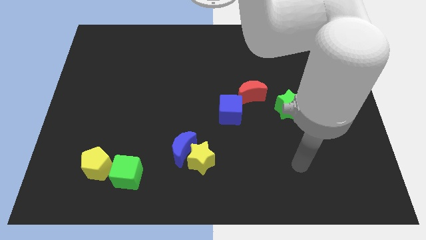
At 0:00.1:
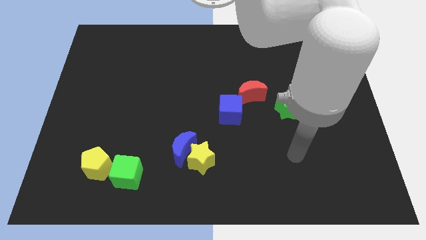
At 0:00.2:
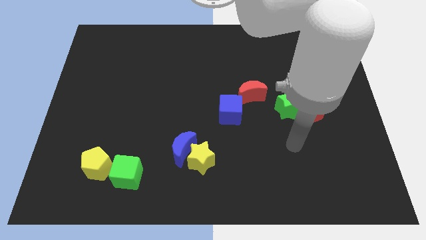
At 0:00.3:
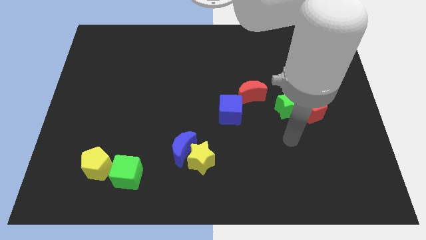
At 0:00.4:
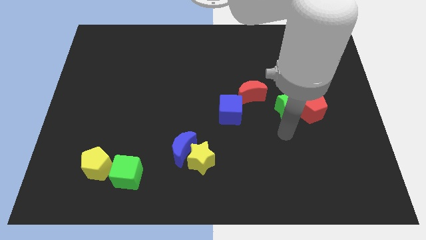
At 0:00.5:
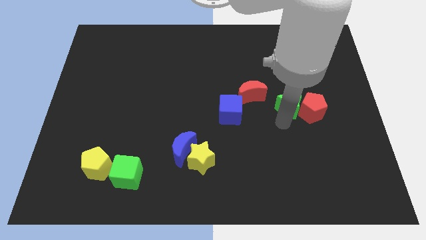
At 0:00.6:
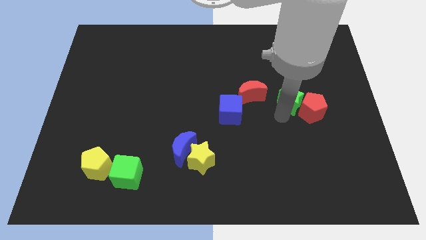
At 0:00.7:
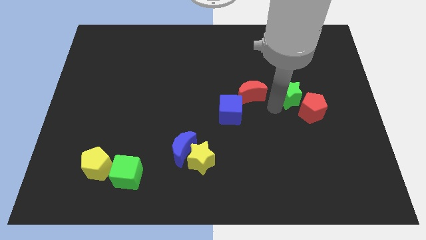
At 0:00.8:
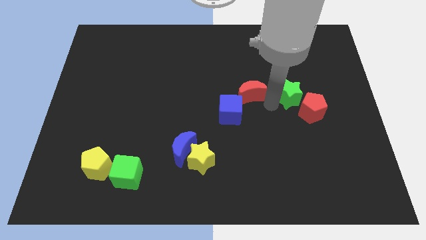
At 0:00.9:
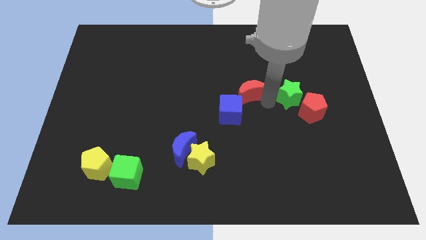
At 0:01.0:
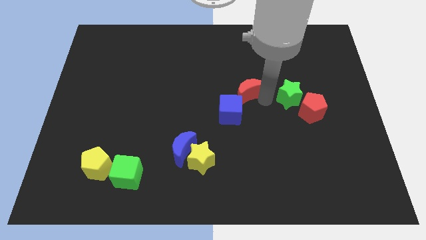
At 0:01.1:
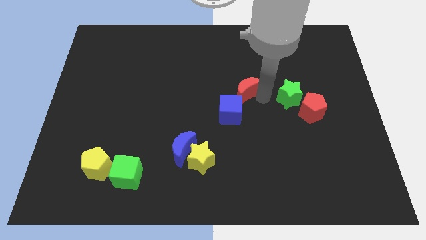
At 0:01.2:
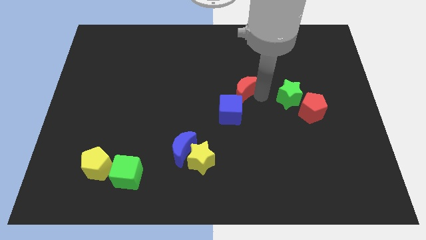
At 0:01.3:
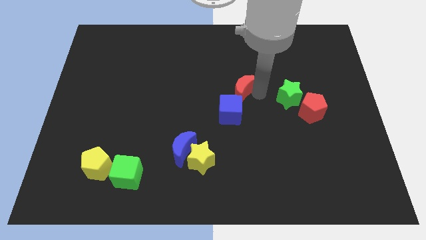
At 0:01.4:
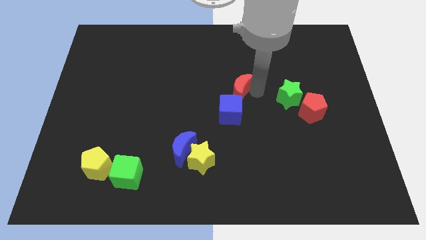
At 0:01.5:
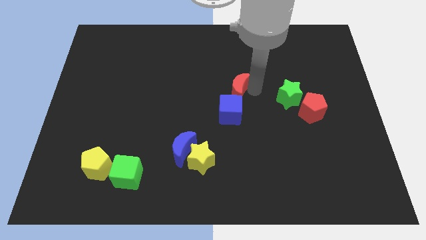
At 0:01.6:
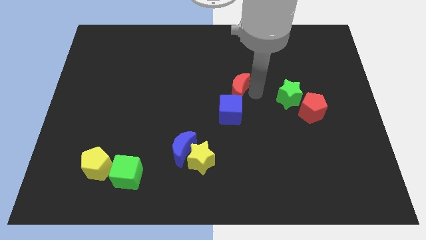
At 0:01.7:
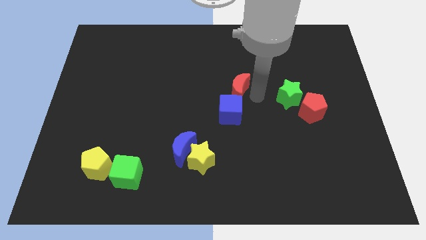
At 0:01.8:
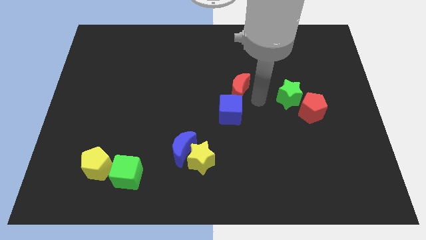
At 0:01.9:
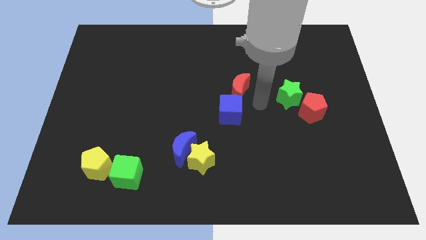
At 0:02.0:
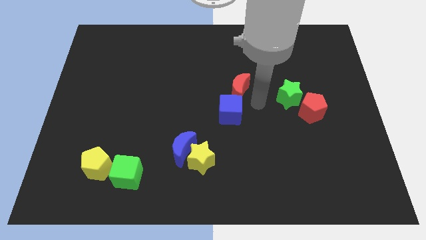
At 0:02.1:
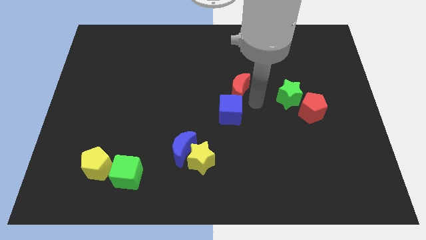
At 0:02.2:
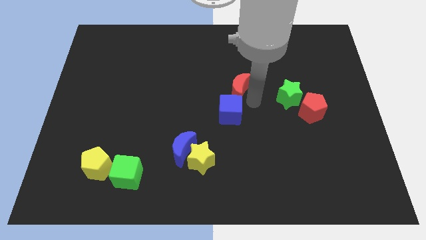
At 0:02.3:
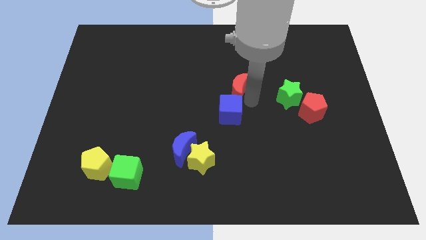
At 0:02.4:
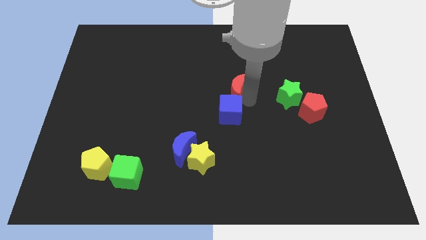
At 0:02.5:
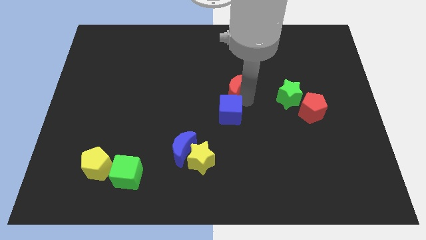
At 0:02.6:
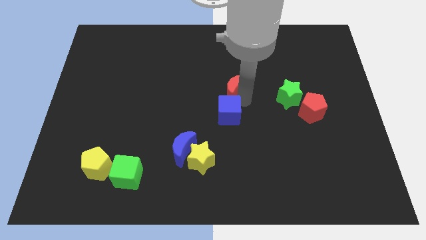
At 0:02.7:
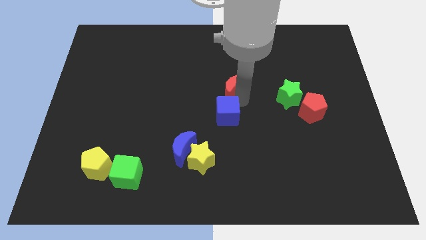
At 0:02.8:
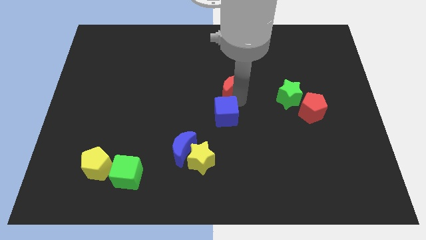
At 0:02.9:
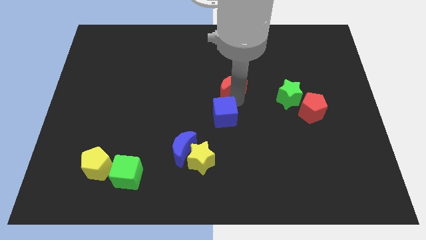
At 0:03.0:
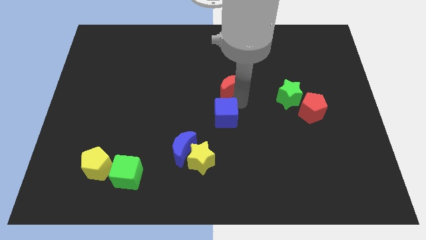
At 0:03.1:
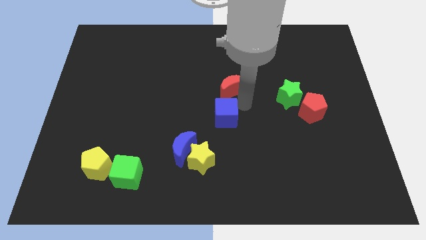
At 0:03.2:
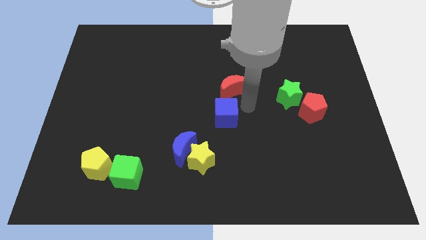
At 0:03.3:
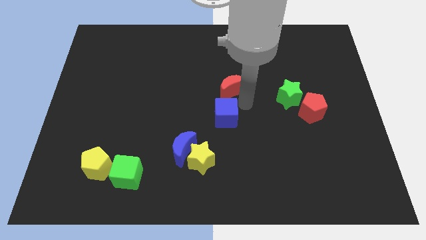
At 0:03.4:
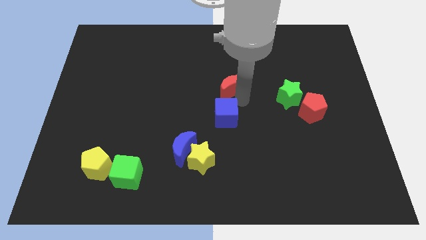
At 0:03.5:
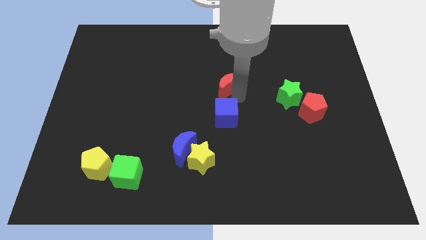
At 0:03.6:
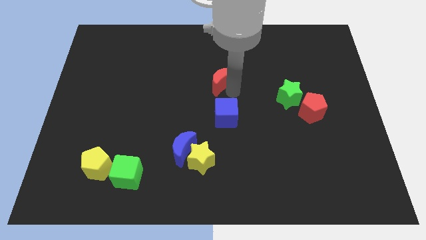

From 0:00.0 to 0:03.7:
slightly move the red moon upwards and then to the left

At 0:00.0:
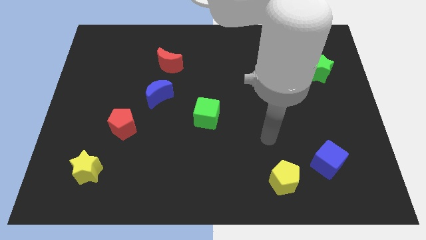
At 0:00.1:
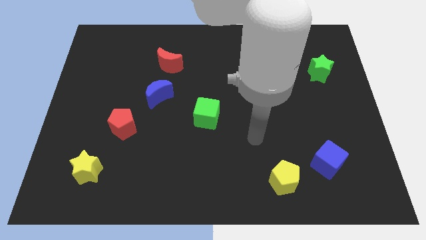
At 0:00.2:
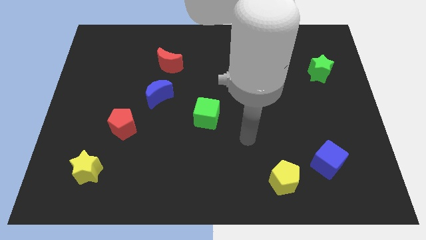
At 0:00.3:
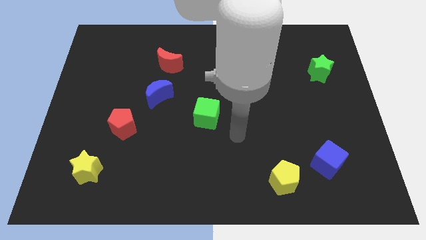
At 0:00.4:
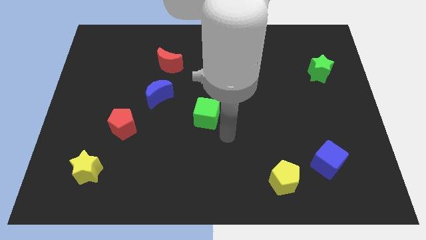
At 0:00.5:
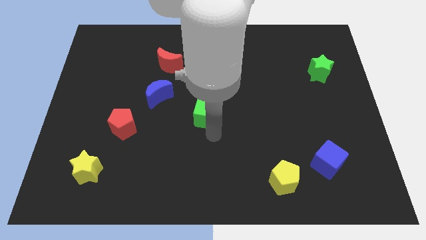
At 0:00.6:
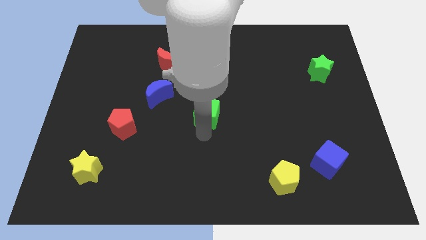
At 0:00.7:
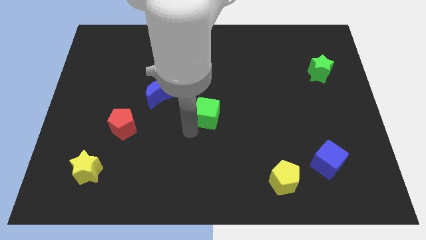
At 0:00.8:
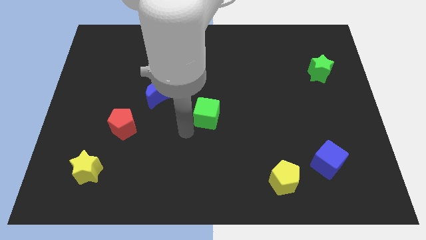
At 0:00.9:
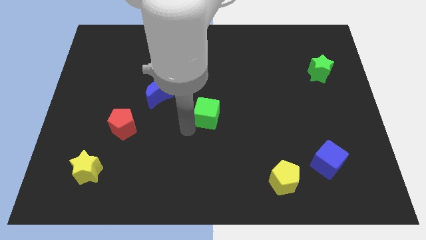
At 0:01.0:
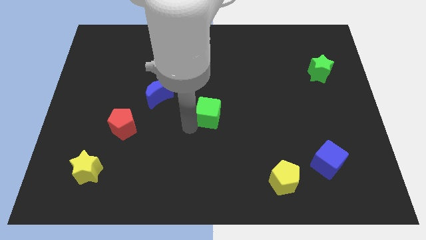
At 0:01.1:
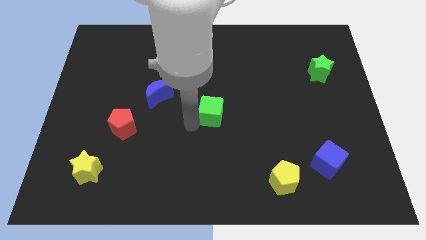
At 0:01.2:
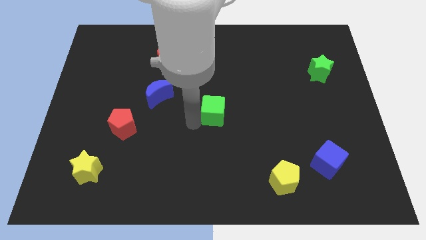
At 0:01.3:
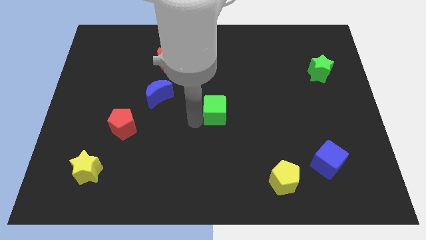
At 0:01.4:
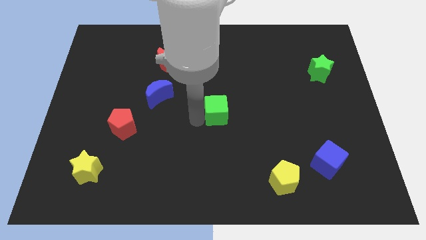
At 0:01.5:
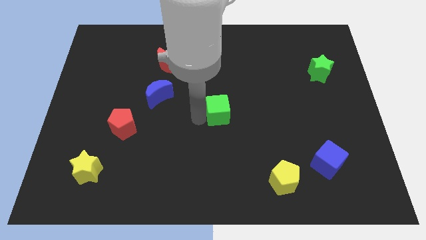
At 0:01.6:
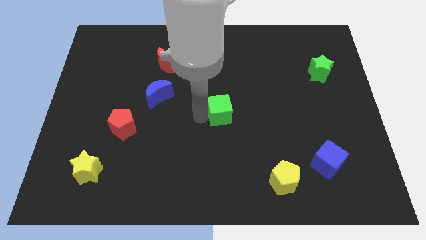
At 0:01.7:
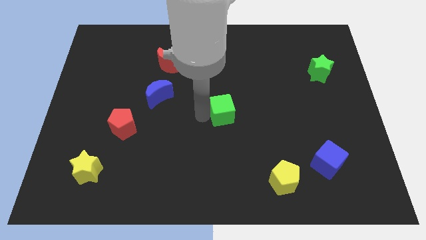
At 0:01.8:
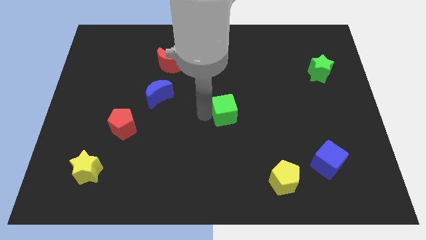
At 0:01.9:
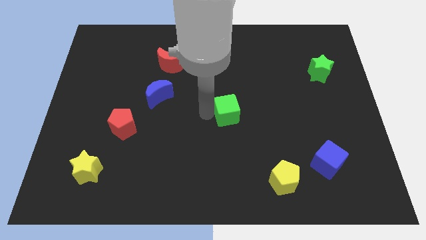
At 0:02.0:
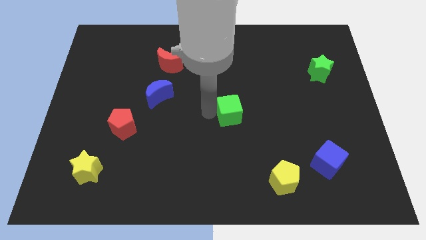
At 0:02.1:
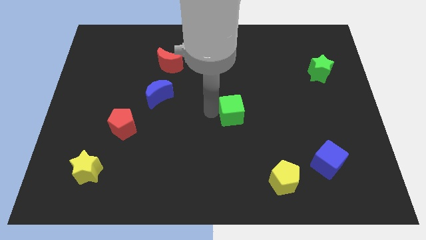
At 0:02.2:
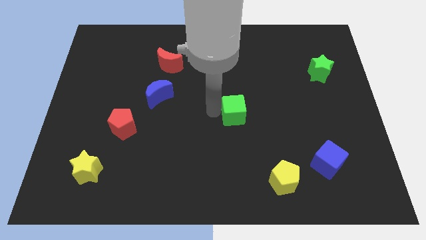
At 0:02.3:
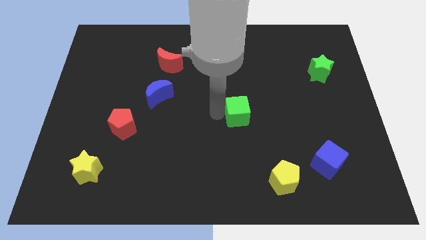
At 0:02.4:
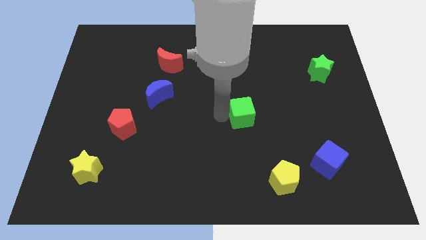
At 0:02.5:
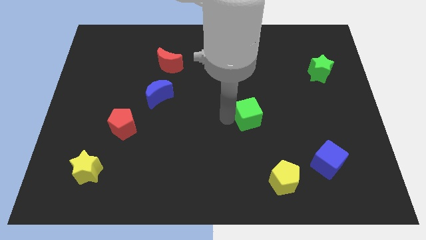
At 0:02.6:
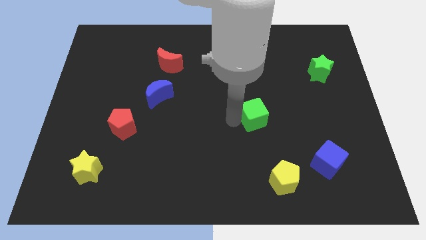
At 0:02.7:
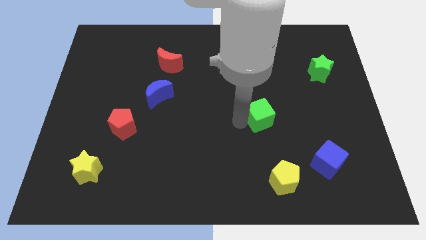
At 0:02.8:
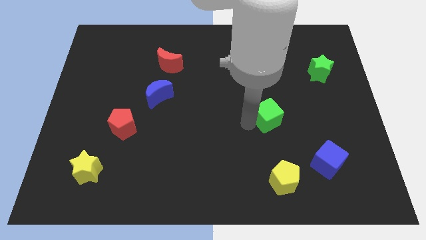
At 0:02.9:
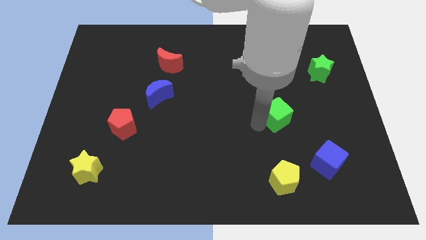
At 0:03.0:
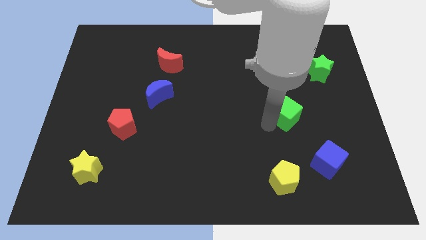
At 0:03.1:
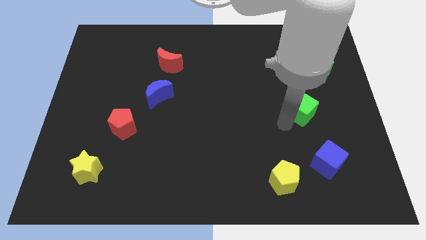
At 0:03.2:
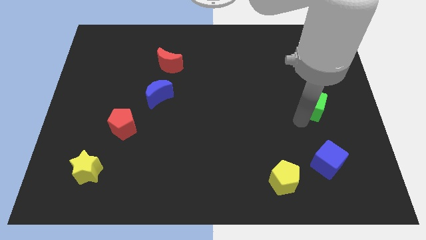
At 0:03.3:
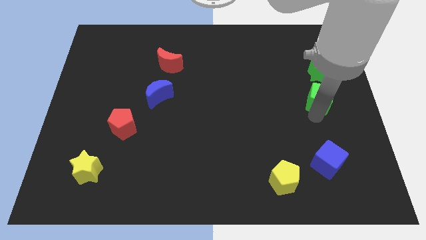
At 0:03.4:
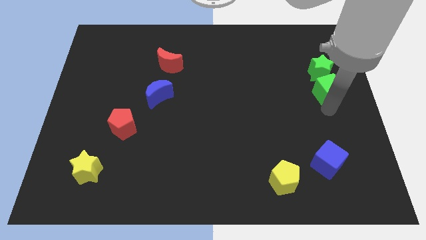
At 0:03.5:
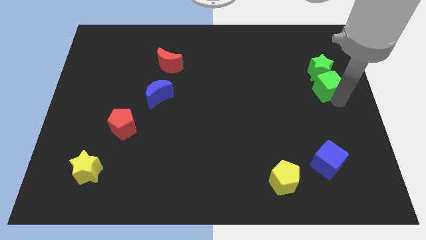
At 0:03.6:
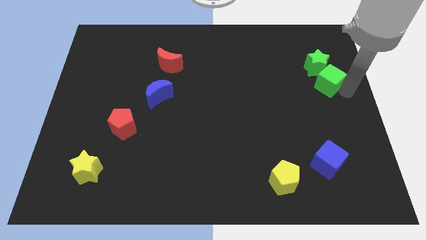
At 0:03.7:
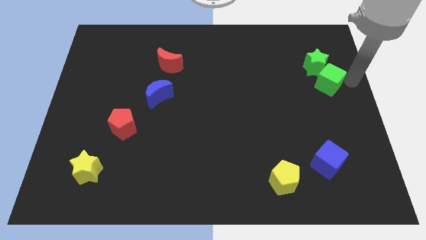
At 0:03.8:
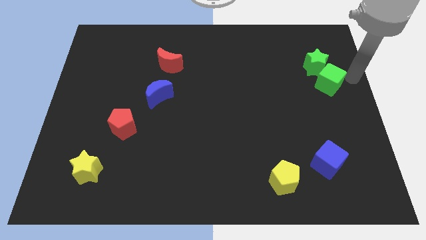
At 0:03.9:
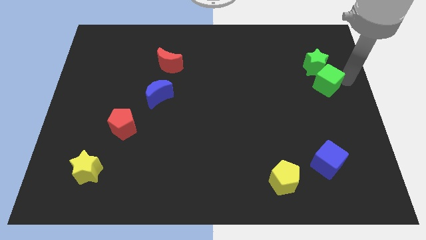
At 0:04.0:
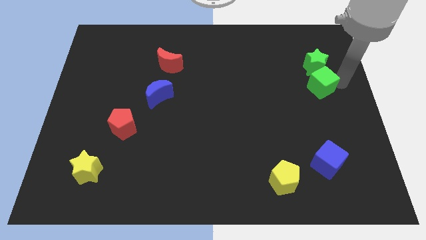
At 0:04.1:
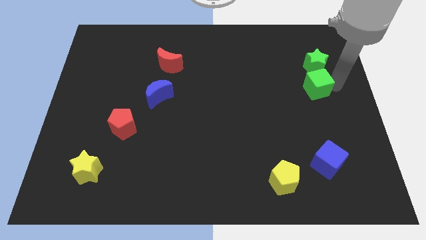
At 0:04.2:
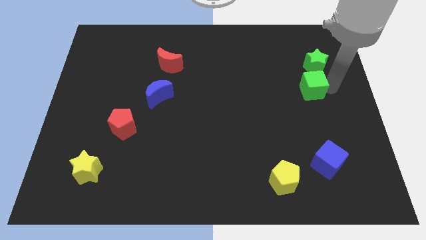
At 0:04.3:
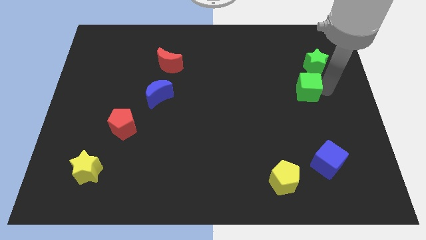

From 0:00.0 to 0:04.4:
slightly slide the green cube up and then right

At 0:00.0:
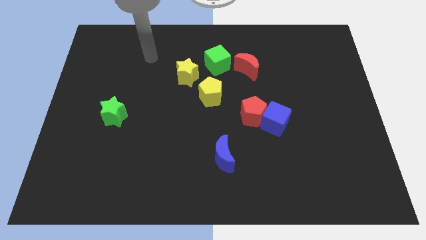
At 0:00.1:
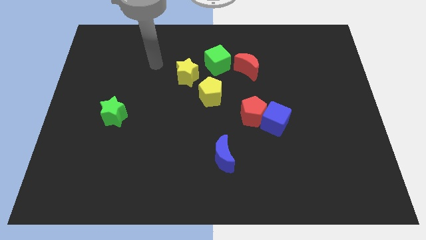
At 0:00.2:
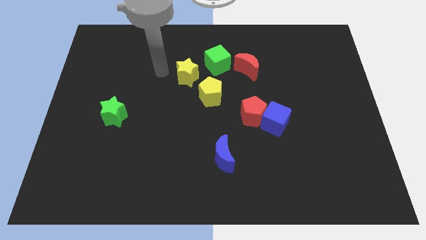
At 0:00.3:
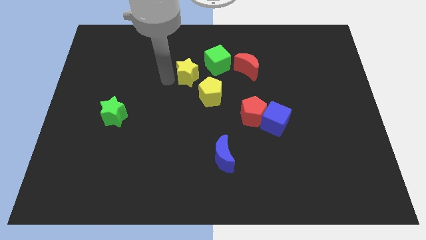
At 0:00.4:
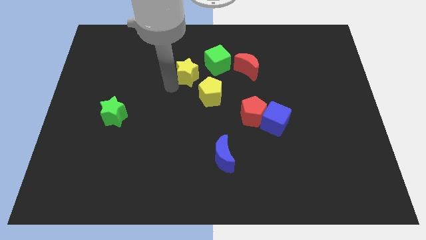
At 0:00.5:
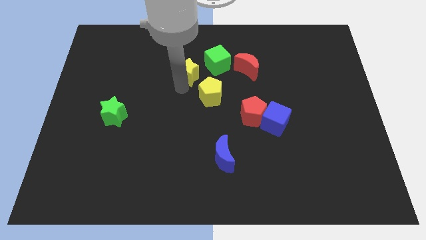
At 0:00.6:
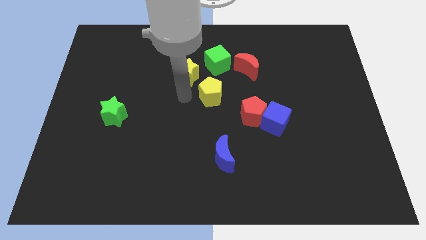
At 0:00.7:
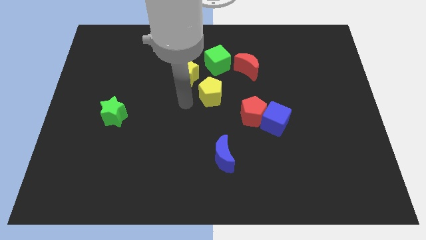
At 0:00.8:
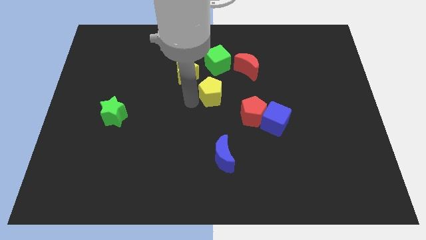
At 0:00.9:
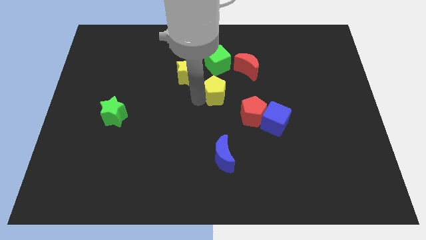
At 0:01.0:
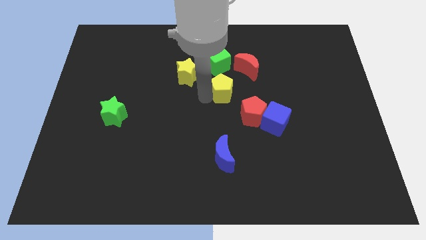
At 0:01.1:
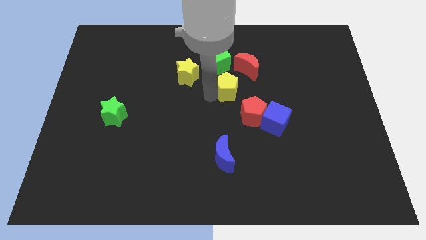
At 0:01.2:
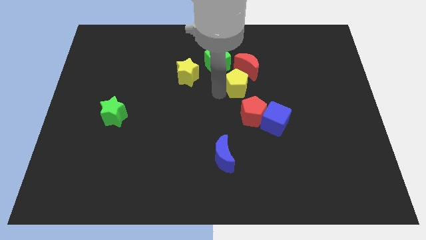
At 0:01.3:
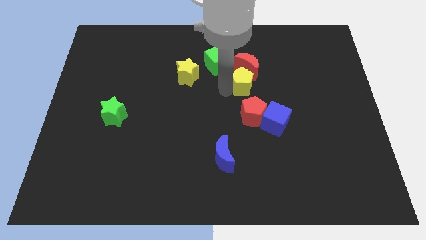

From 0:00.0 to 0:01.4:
move the yellow pentagon a bit diagonally upwards and right
